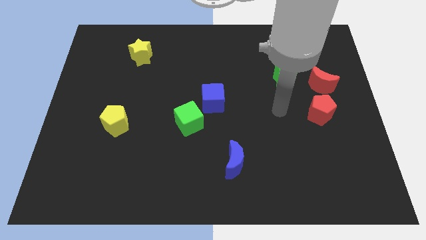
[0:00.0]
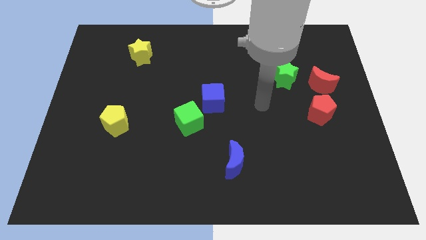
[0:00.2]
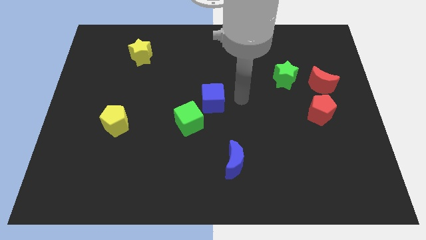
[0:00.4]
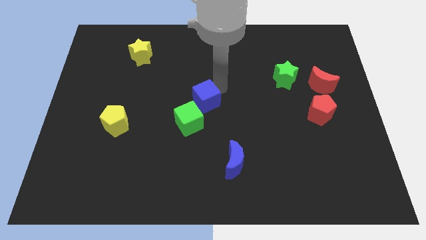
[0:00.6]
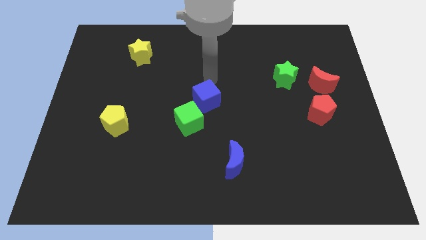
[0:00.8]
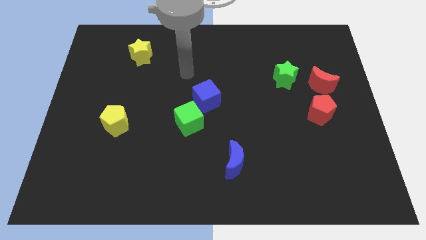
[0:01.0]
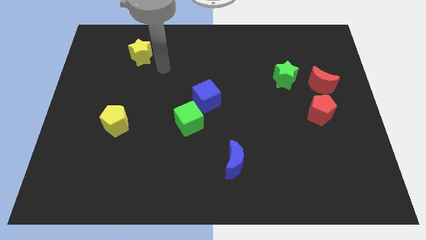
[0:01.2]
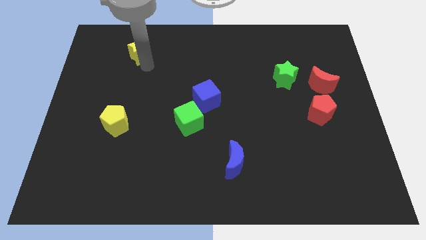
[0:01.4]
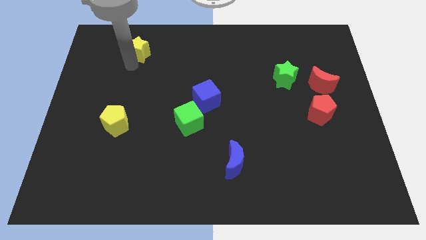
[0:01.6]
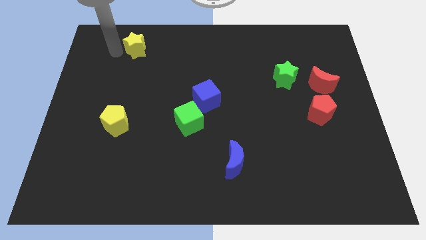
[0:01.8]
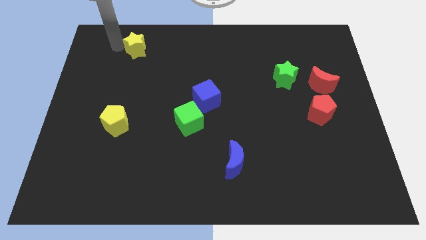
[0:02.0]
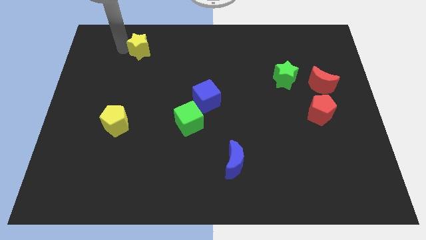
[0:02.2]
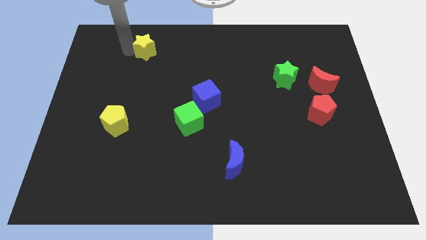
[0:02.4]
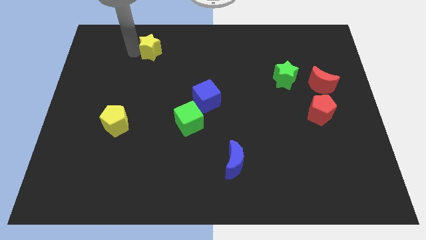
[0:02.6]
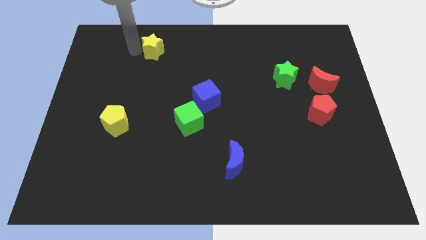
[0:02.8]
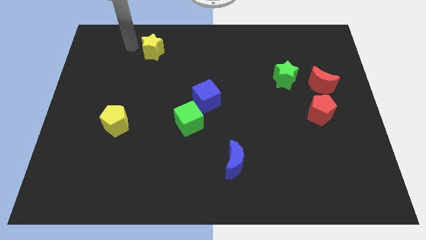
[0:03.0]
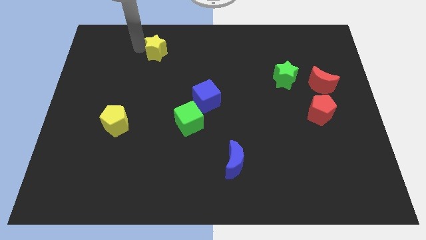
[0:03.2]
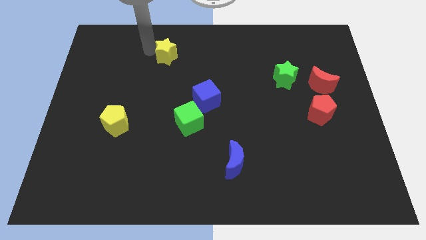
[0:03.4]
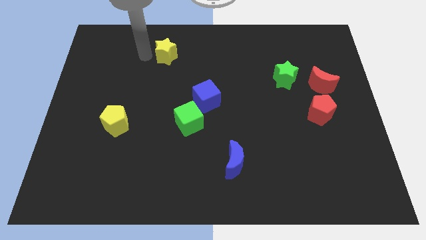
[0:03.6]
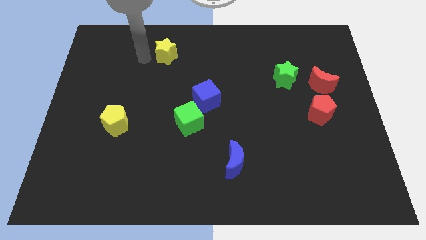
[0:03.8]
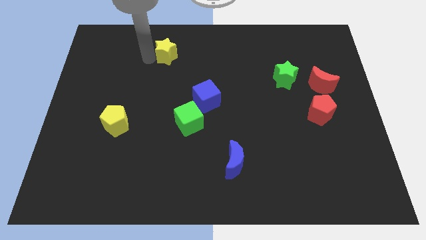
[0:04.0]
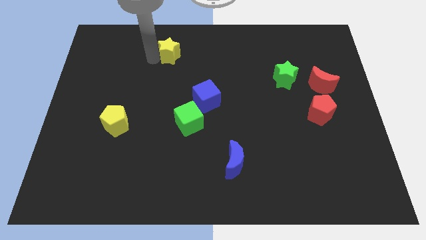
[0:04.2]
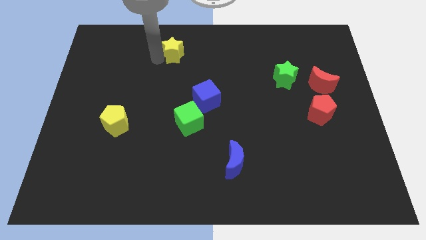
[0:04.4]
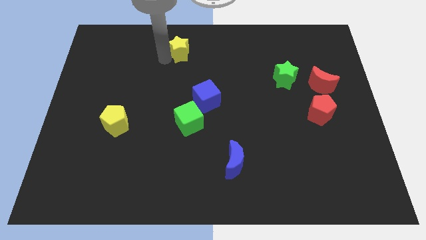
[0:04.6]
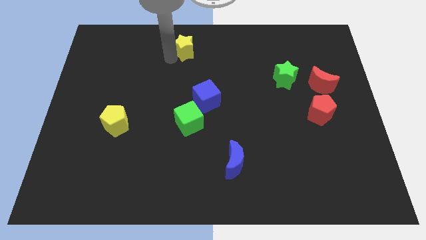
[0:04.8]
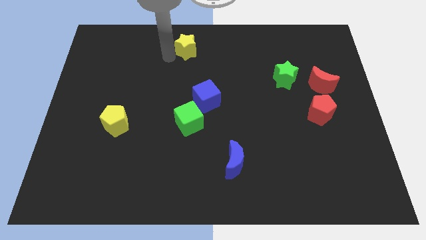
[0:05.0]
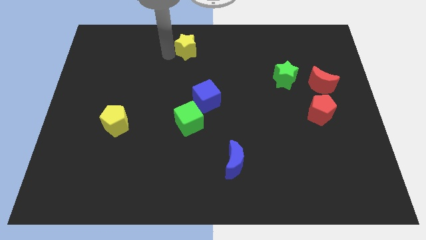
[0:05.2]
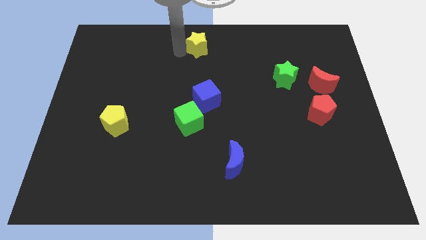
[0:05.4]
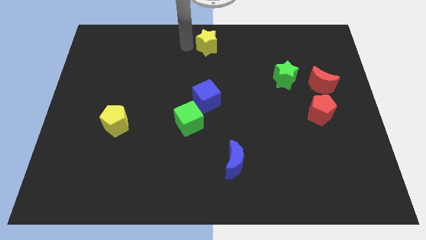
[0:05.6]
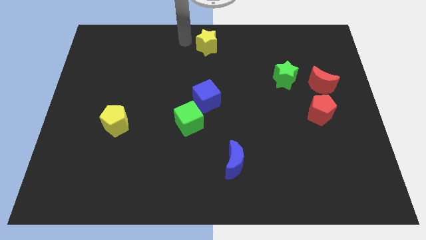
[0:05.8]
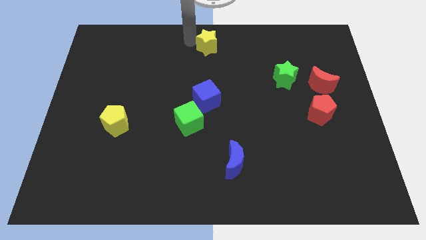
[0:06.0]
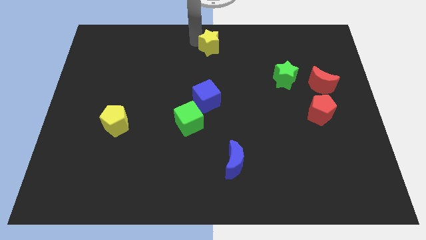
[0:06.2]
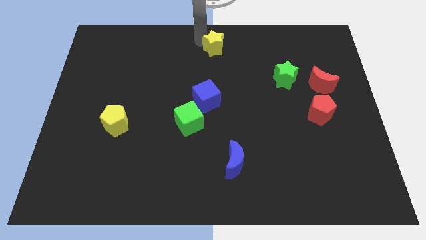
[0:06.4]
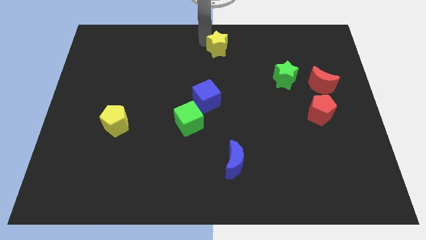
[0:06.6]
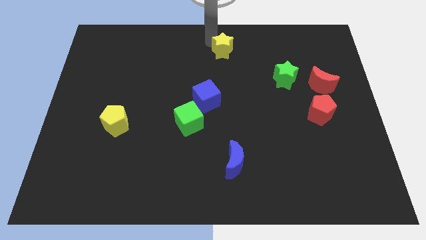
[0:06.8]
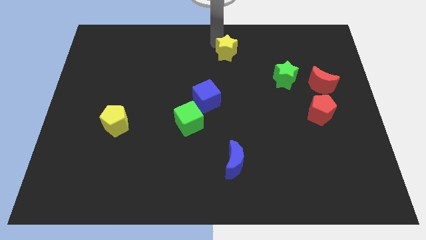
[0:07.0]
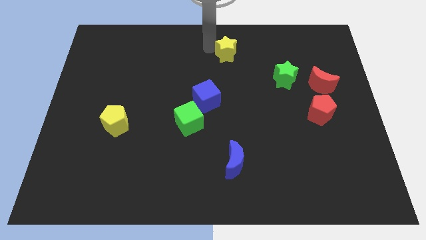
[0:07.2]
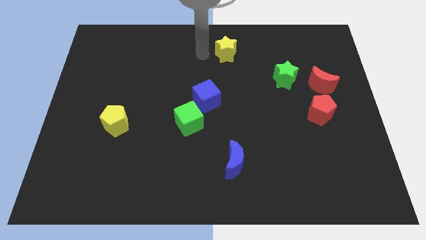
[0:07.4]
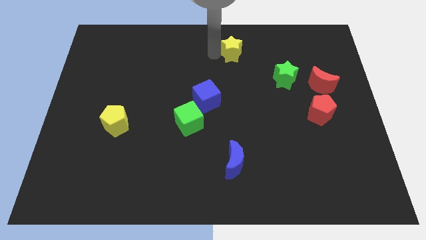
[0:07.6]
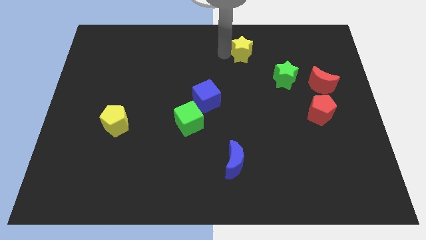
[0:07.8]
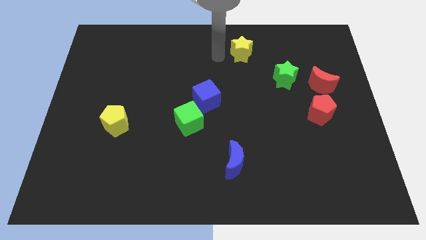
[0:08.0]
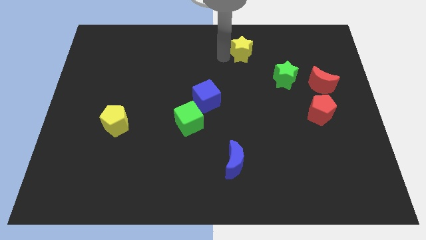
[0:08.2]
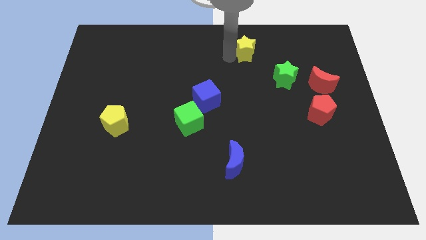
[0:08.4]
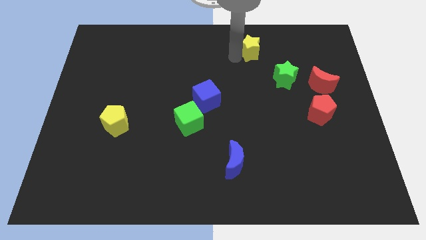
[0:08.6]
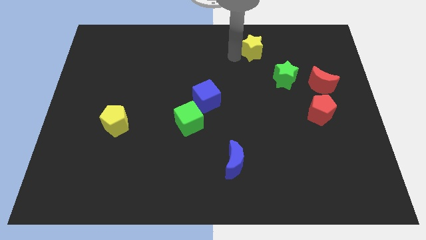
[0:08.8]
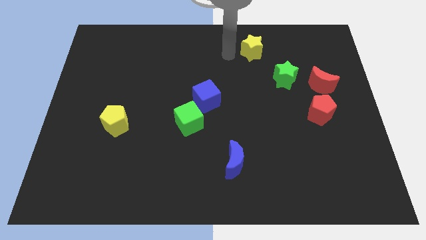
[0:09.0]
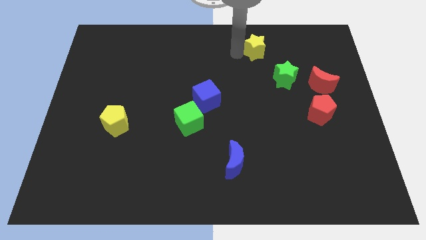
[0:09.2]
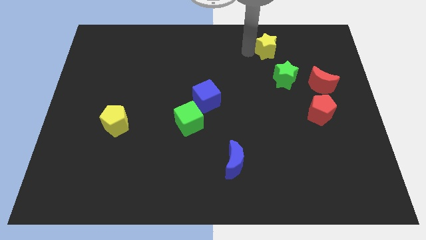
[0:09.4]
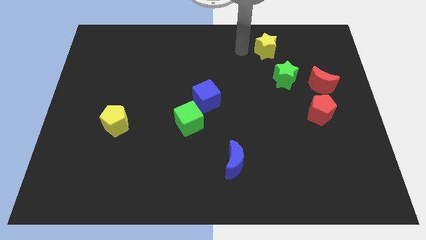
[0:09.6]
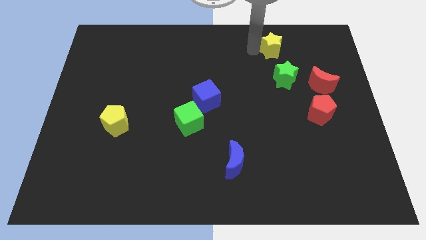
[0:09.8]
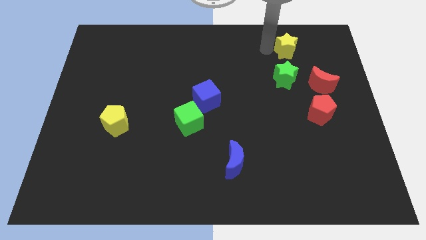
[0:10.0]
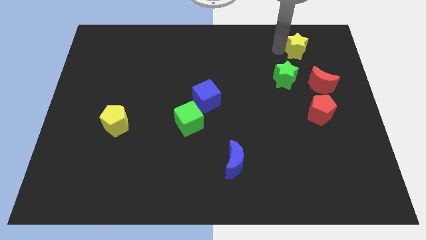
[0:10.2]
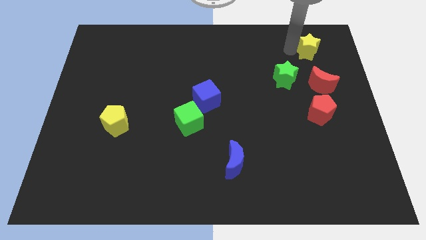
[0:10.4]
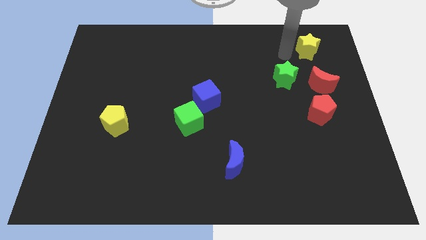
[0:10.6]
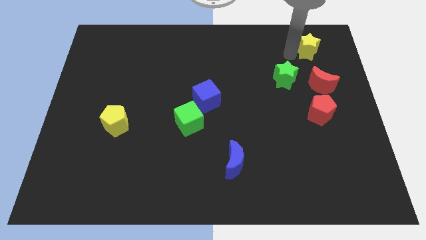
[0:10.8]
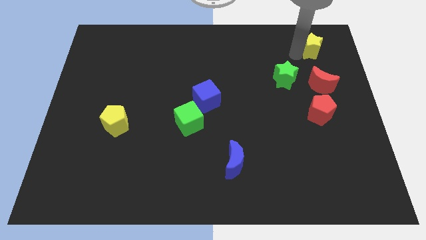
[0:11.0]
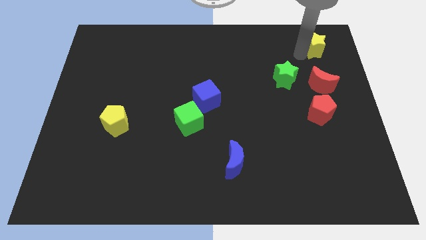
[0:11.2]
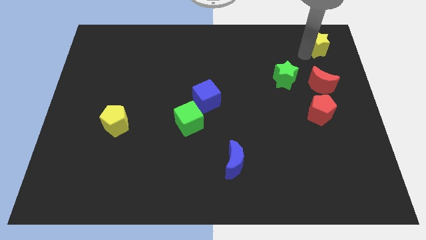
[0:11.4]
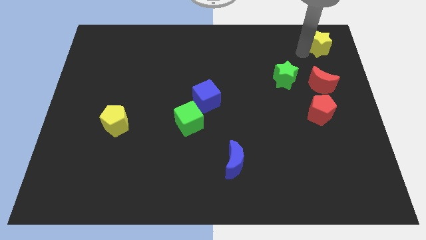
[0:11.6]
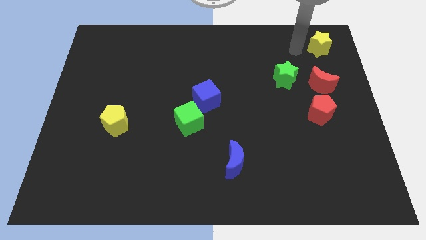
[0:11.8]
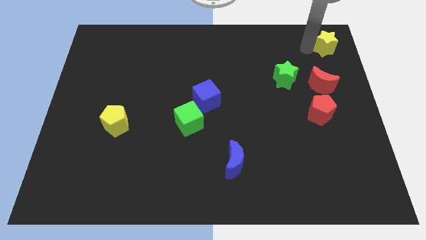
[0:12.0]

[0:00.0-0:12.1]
move the yellow star to the top right corner
